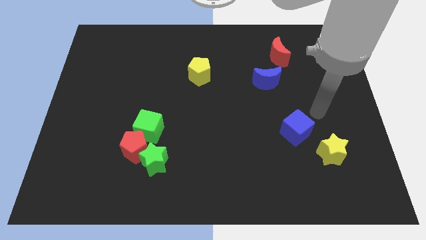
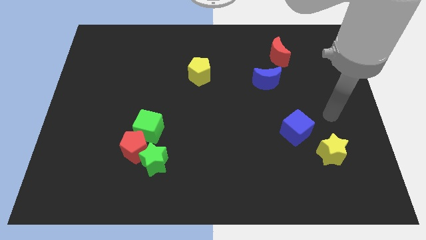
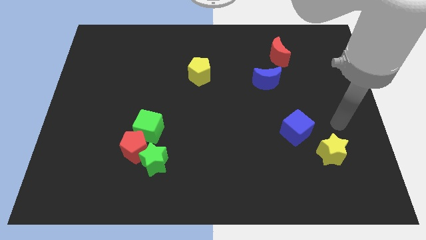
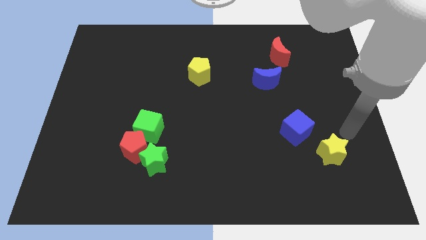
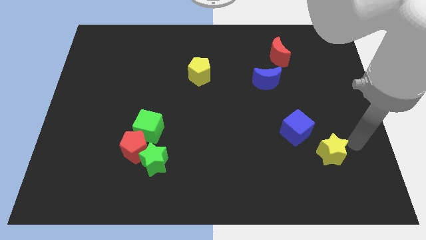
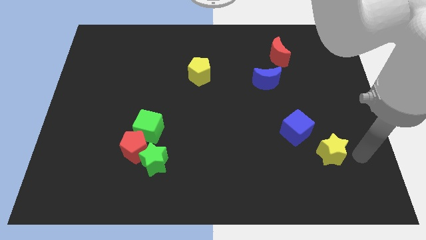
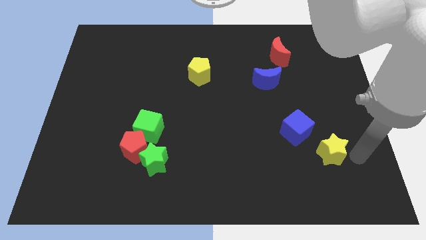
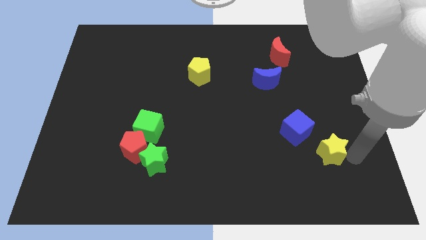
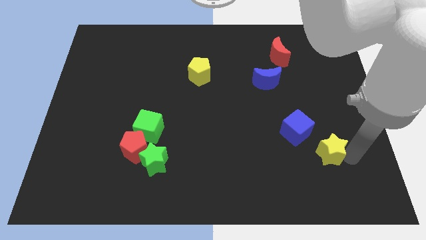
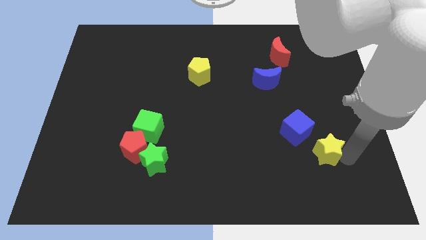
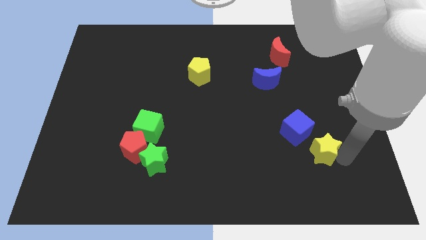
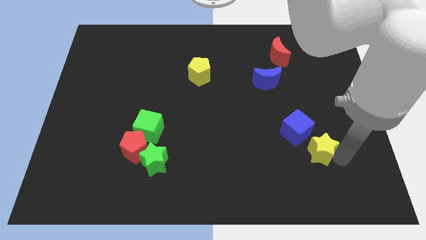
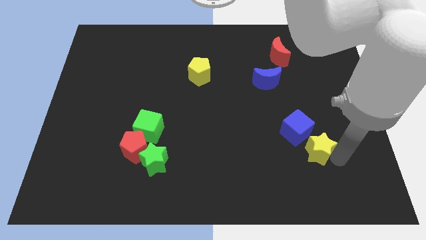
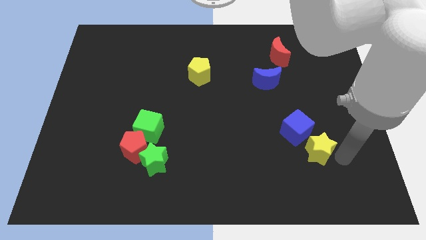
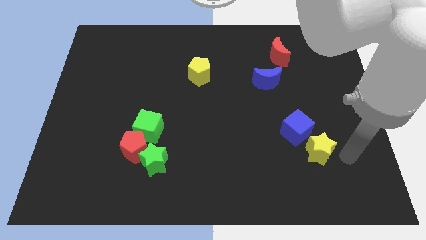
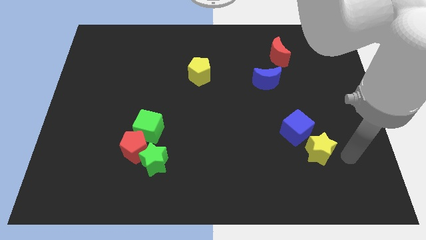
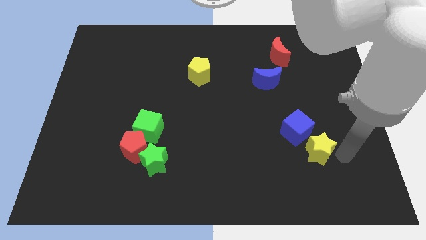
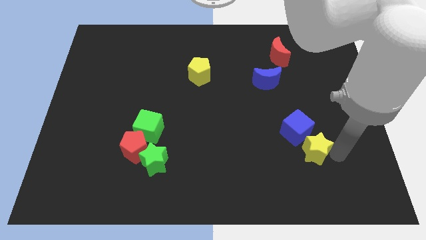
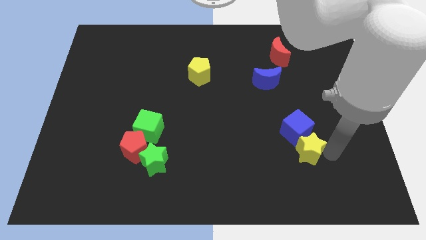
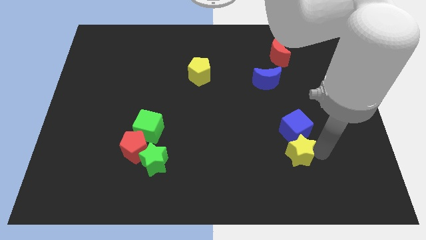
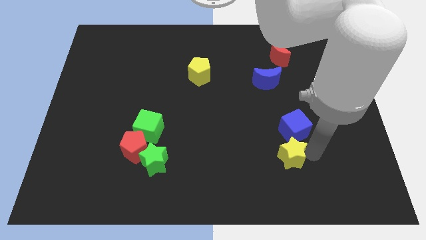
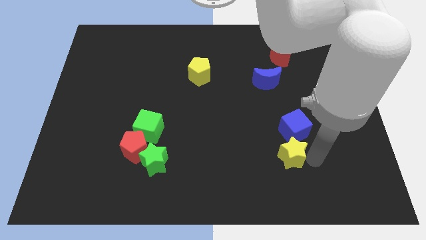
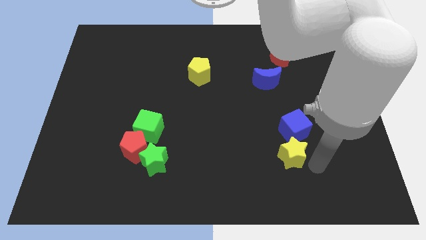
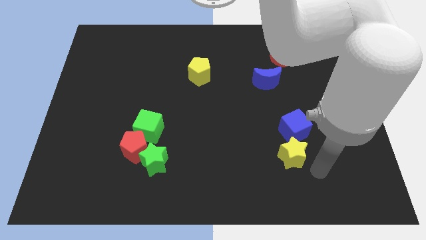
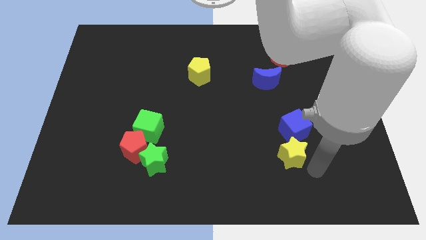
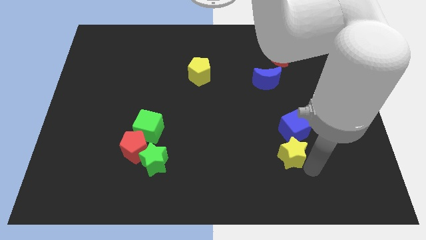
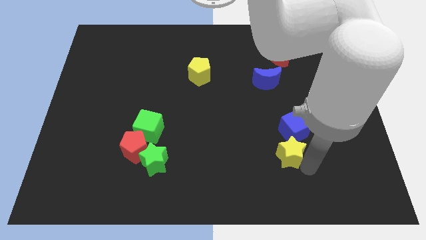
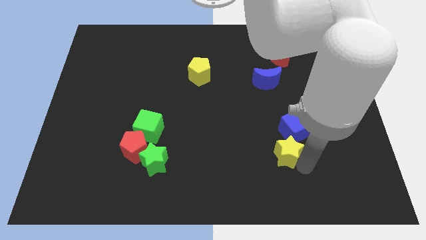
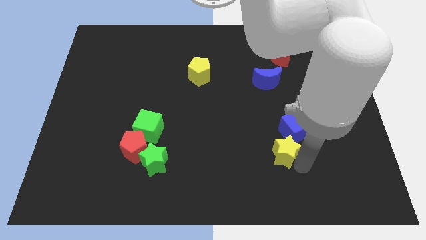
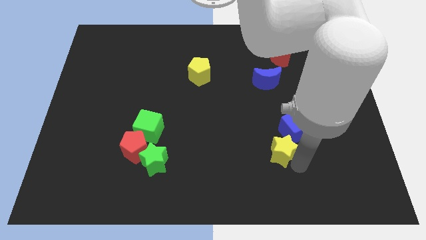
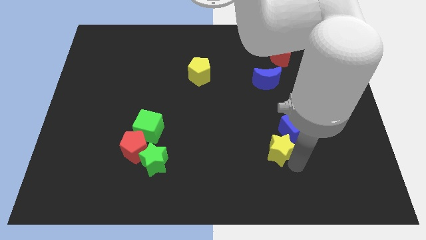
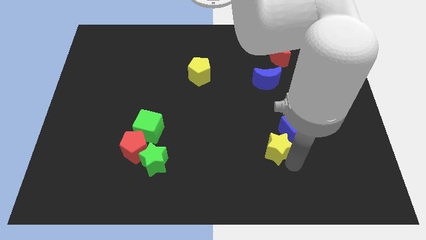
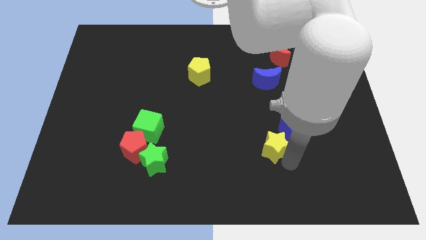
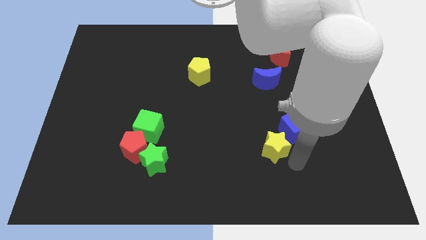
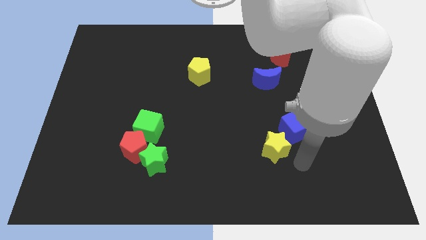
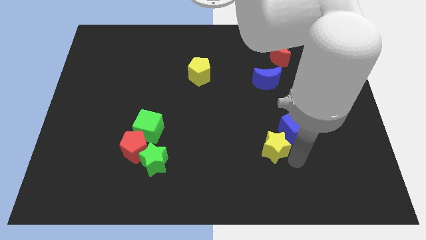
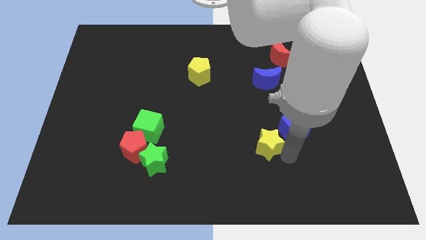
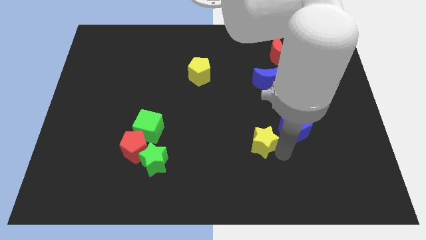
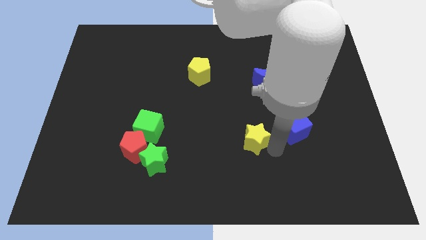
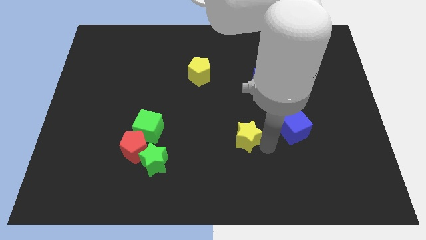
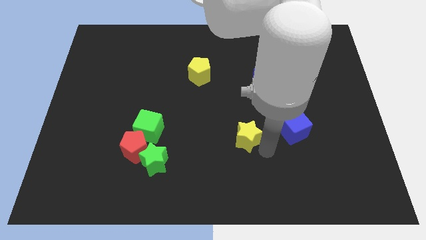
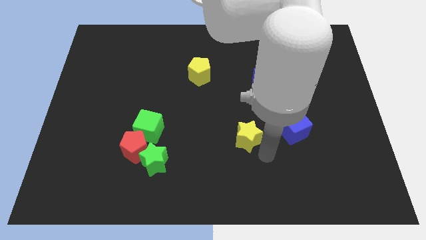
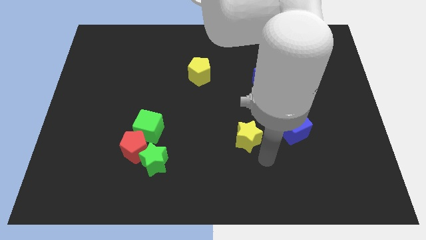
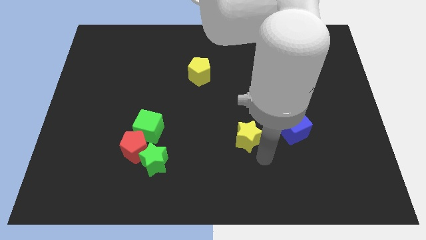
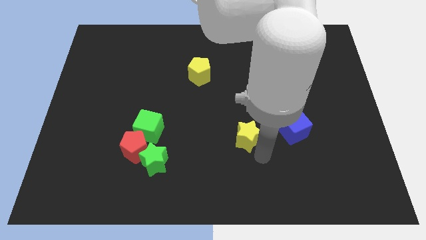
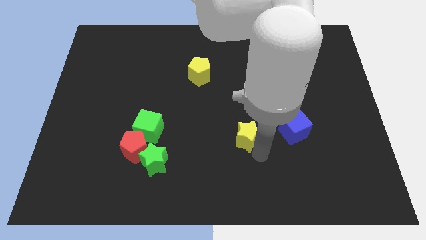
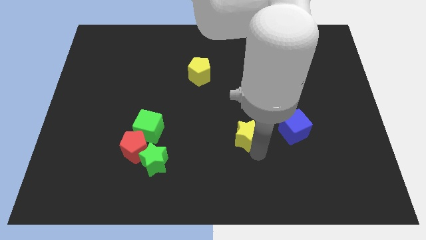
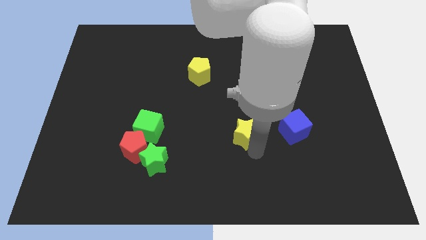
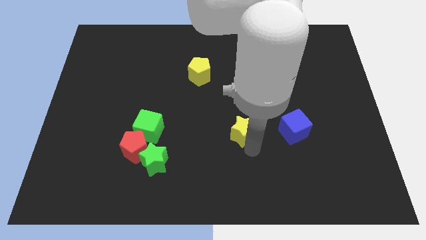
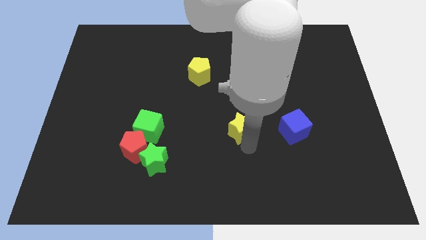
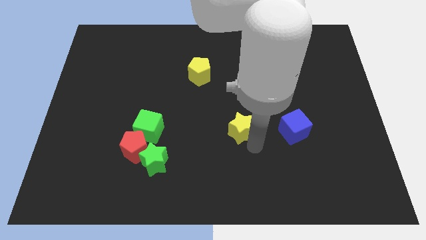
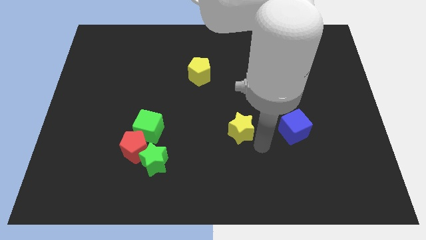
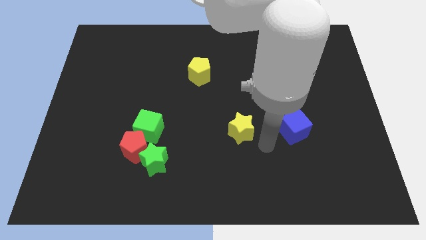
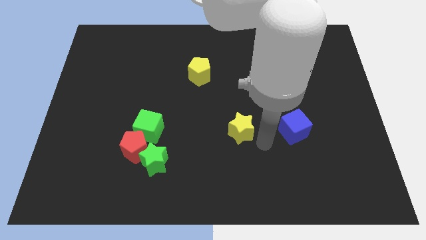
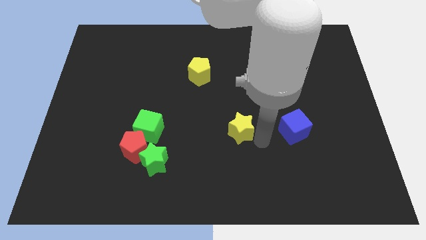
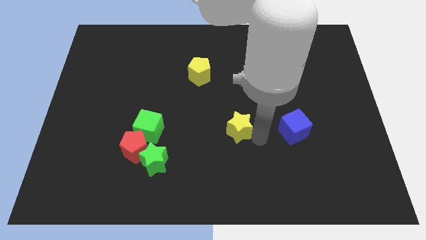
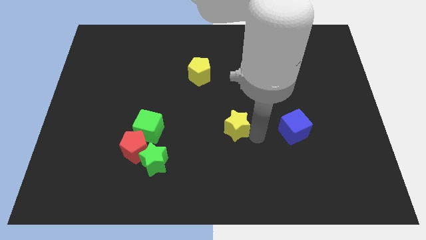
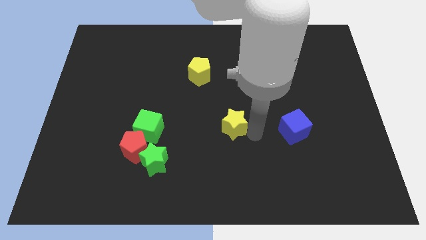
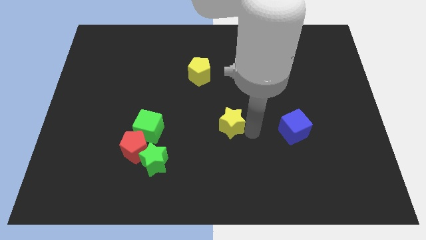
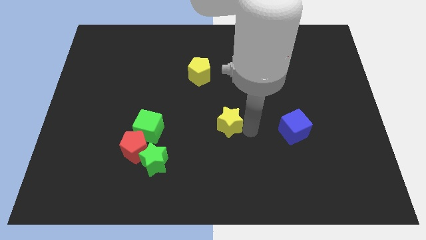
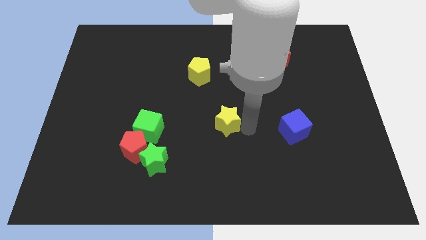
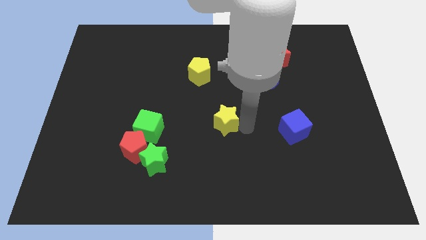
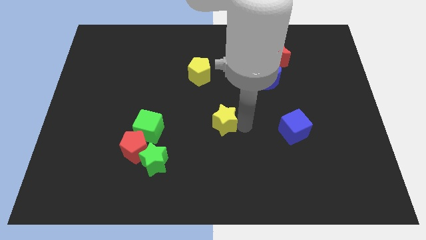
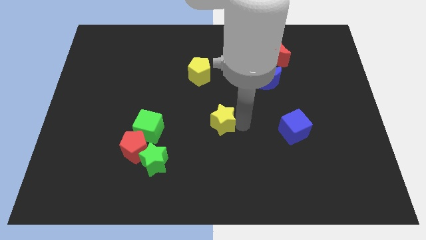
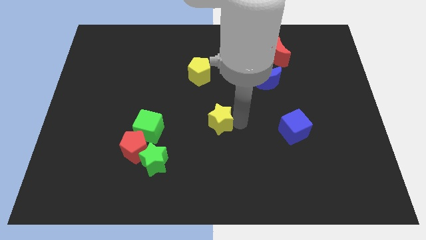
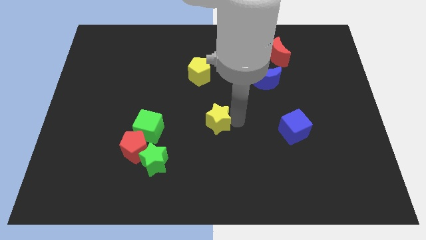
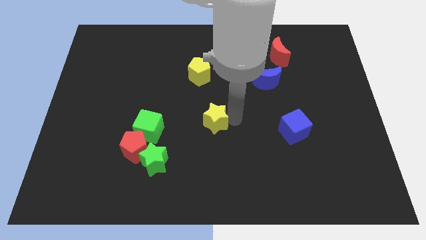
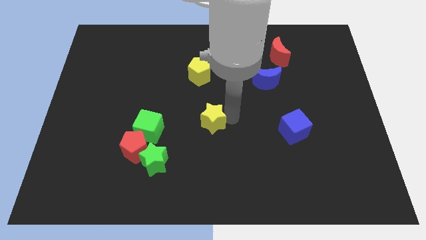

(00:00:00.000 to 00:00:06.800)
put the yellow star below the yellow pentagon

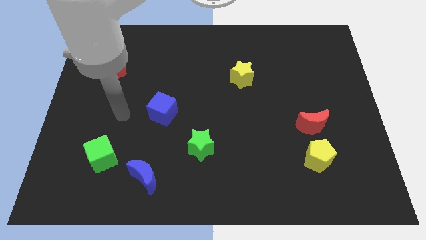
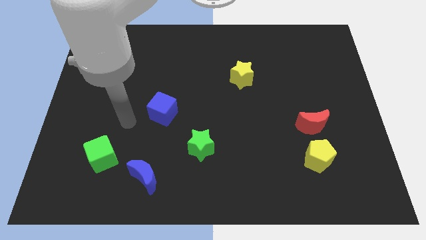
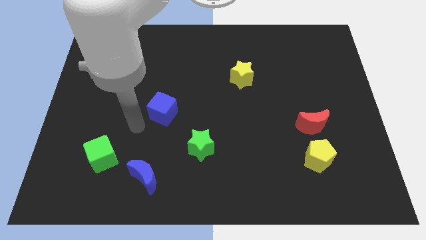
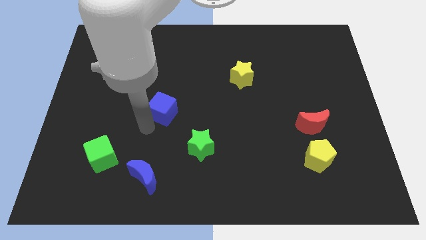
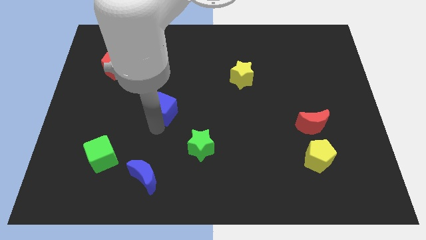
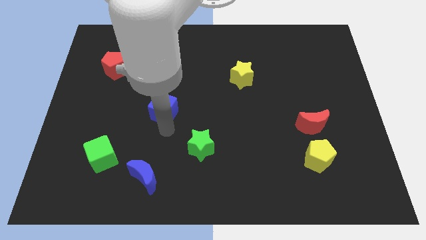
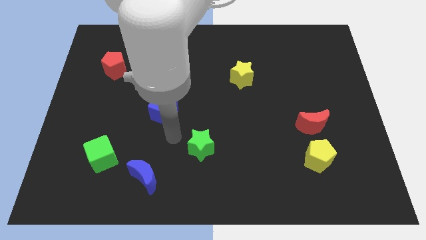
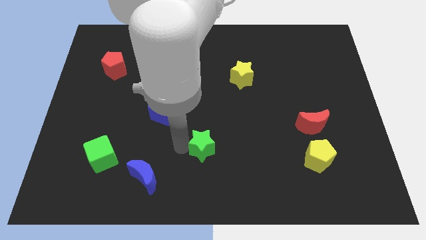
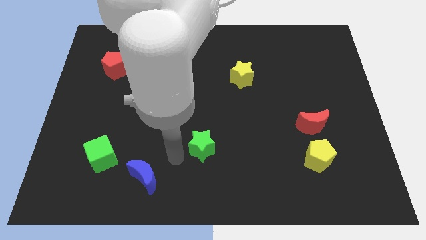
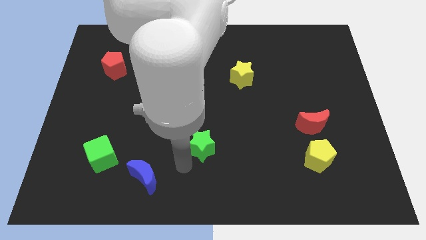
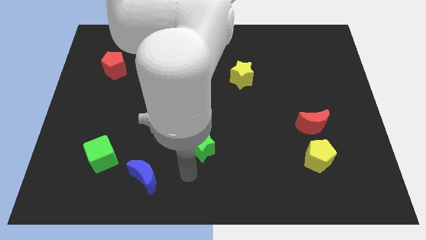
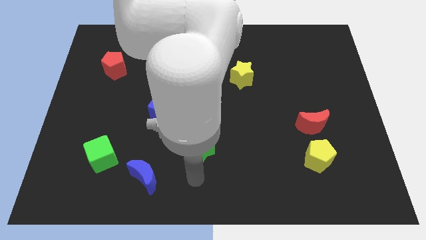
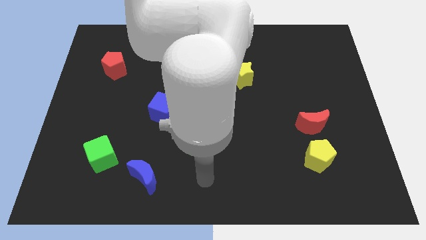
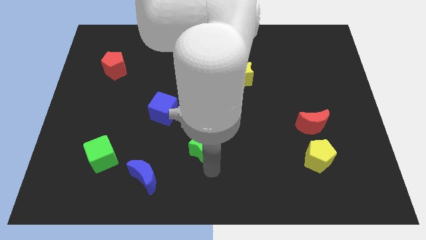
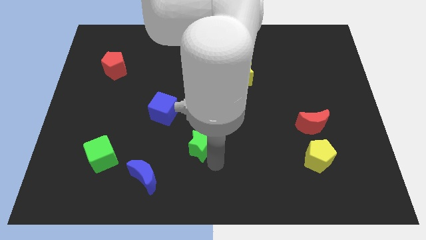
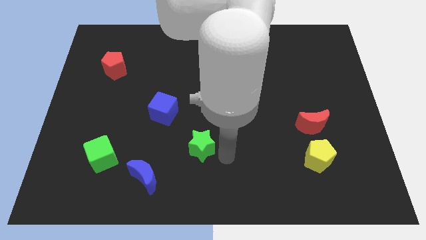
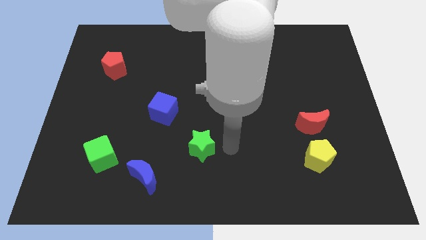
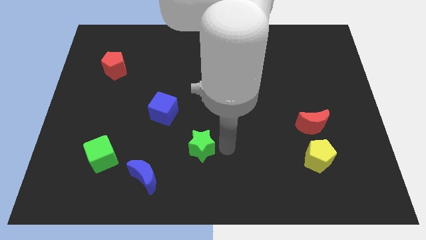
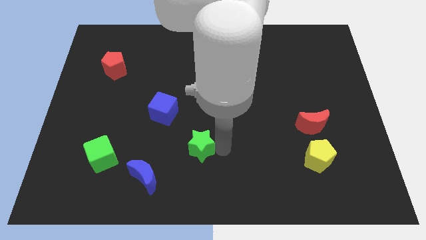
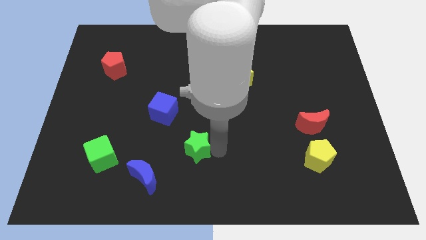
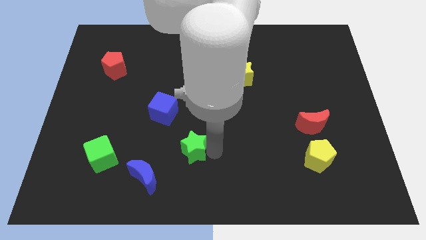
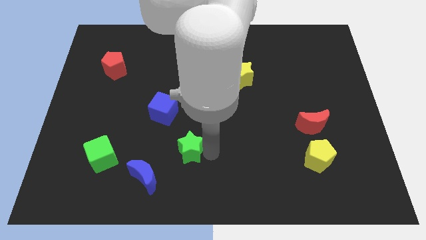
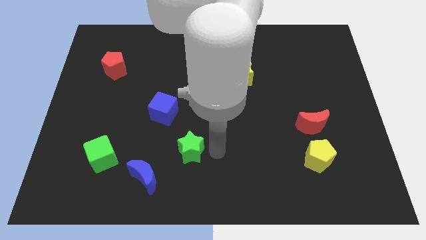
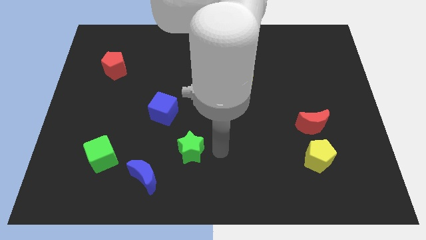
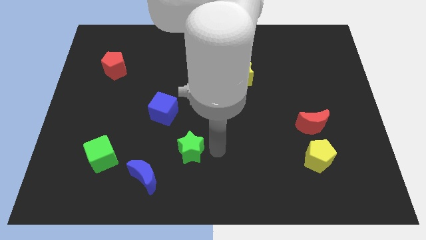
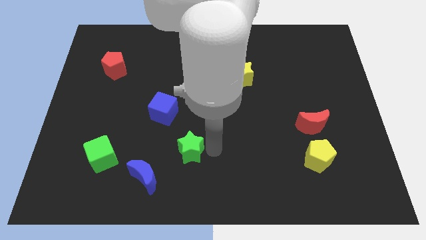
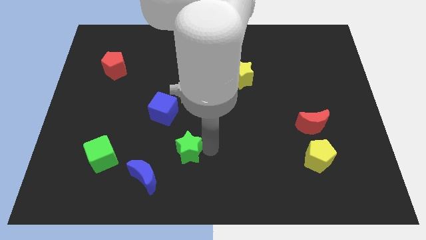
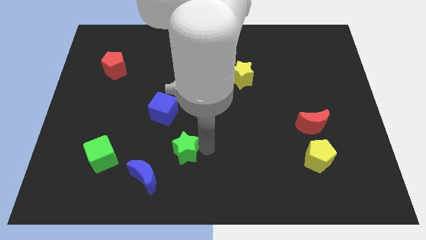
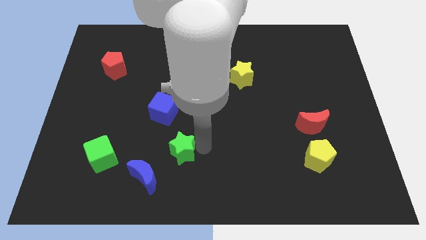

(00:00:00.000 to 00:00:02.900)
put the green star to the bottom of the blue cube
